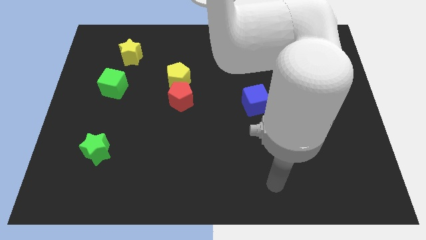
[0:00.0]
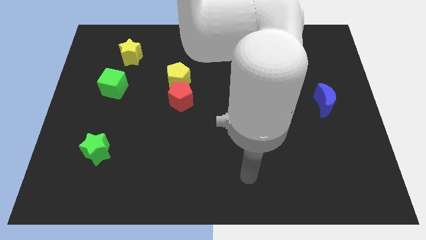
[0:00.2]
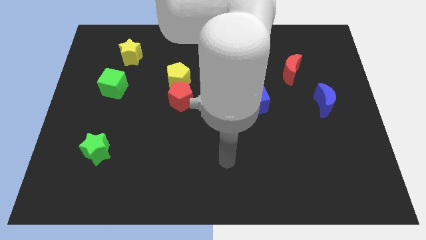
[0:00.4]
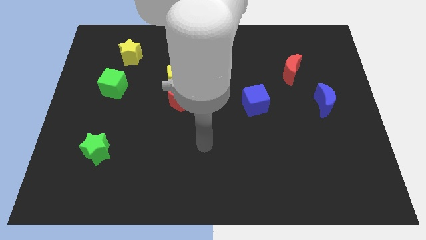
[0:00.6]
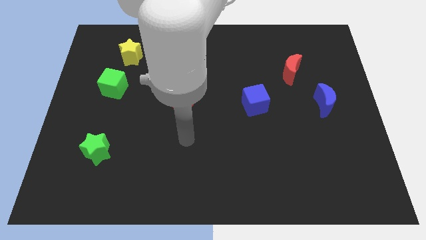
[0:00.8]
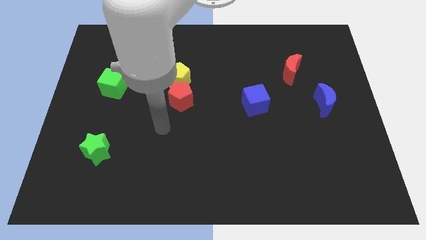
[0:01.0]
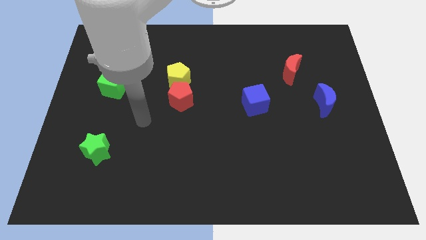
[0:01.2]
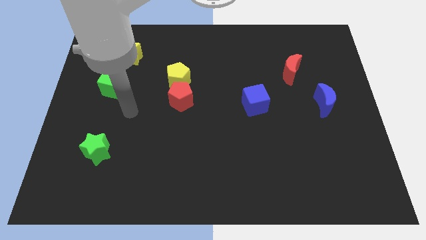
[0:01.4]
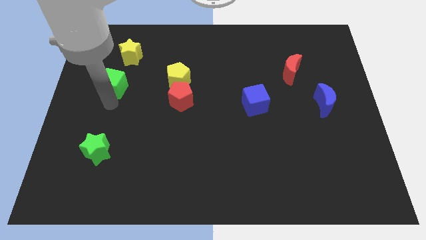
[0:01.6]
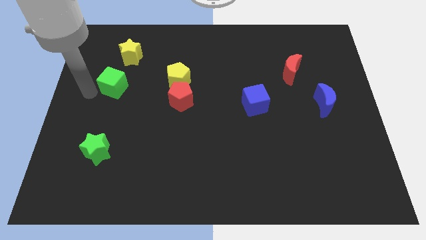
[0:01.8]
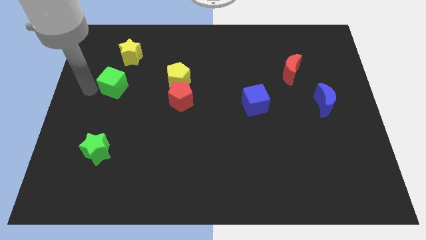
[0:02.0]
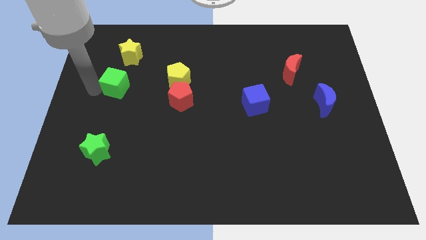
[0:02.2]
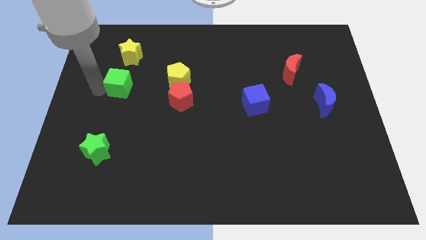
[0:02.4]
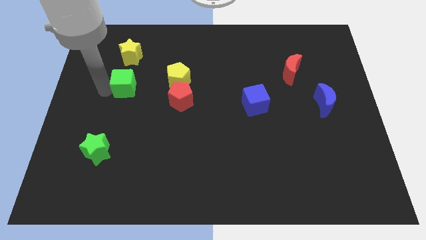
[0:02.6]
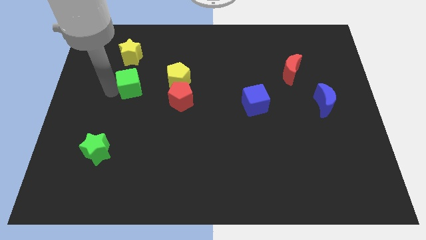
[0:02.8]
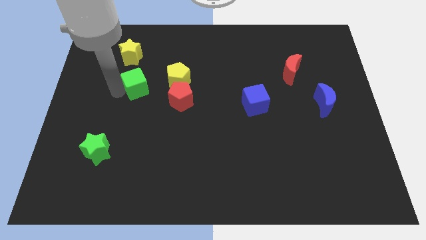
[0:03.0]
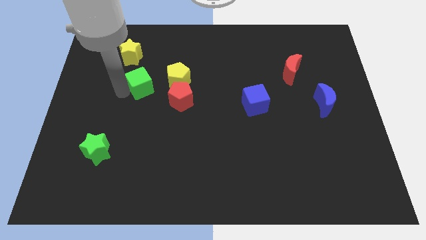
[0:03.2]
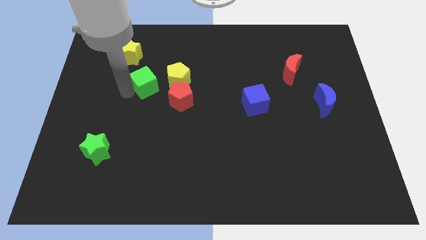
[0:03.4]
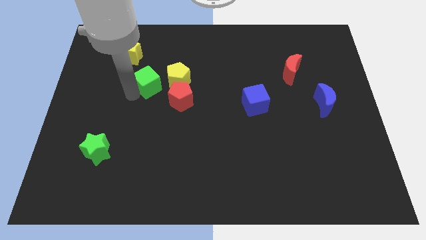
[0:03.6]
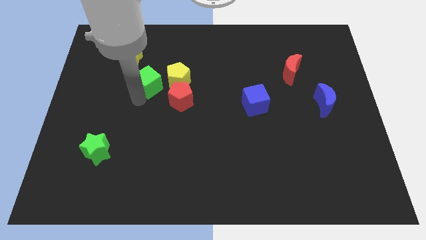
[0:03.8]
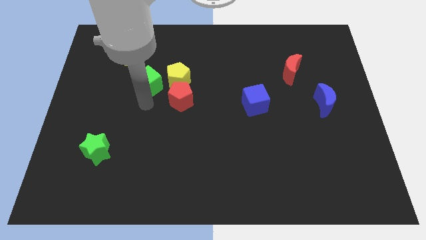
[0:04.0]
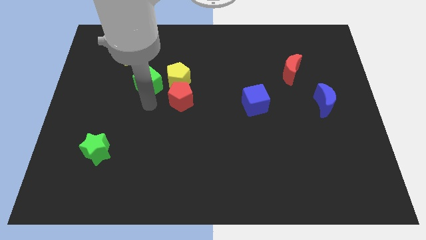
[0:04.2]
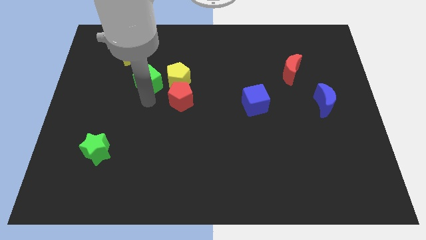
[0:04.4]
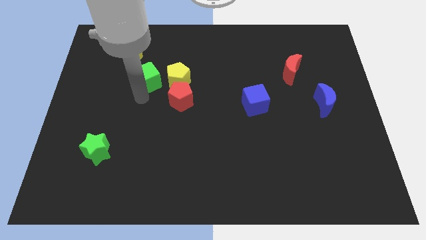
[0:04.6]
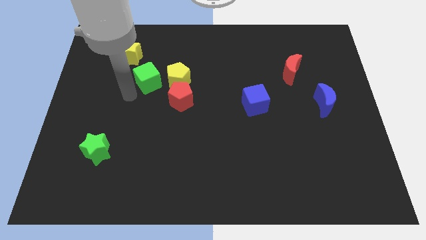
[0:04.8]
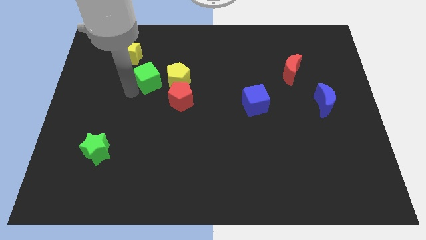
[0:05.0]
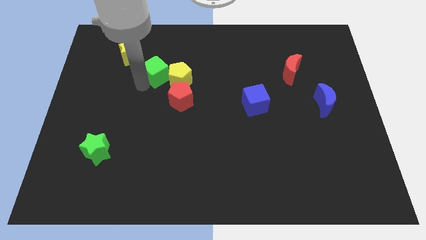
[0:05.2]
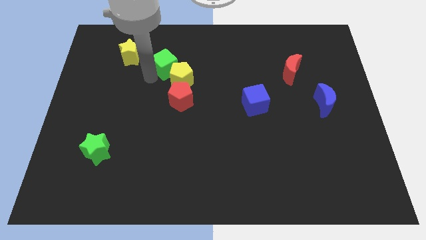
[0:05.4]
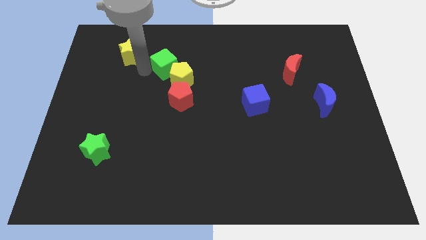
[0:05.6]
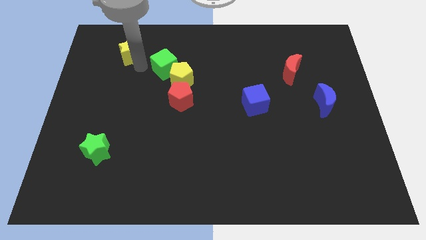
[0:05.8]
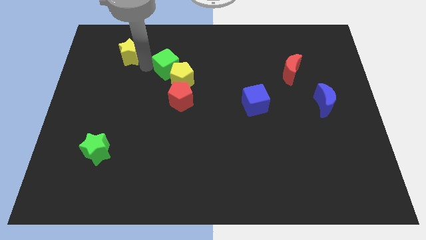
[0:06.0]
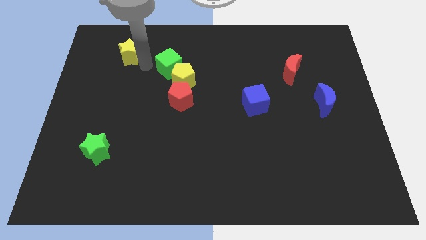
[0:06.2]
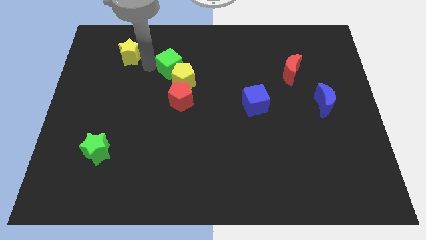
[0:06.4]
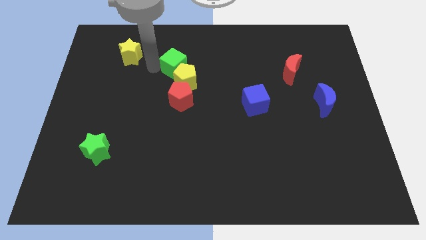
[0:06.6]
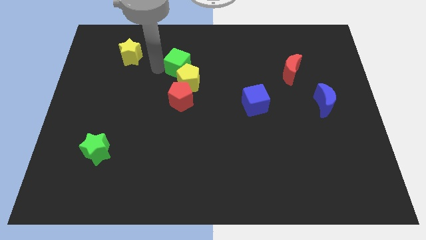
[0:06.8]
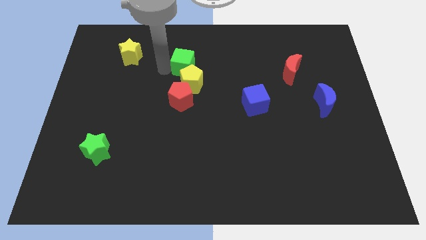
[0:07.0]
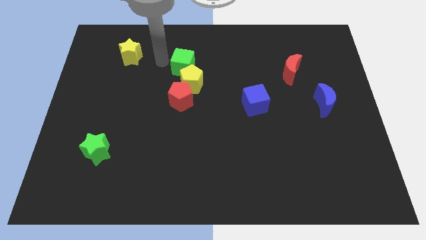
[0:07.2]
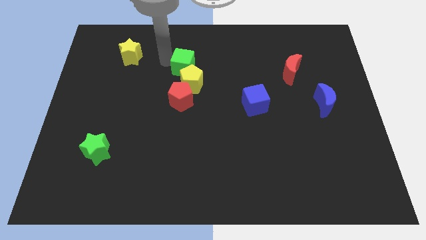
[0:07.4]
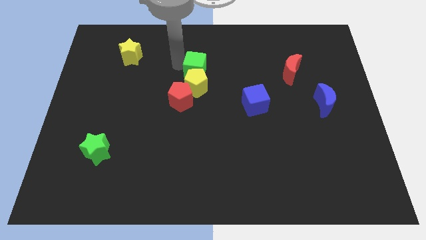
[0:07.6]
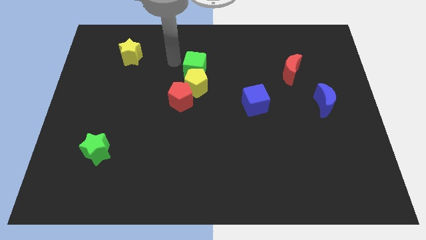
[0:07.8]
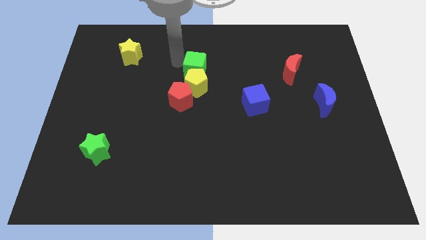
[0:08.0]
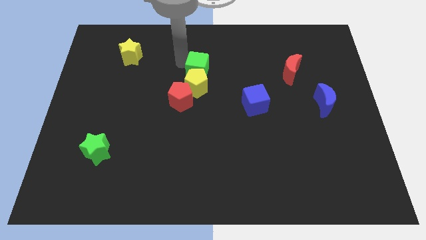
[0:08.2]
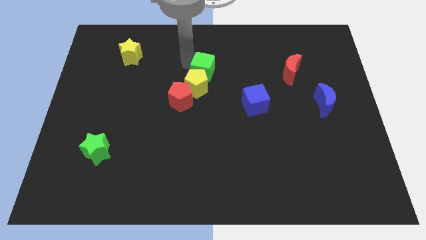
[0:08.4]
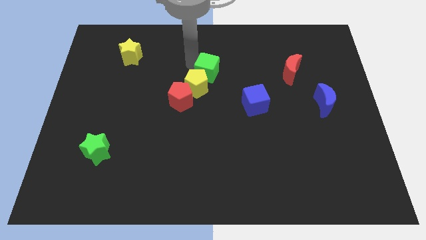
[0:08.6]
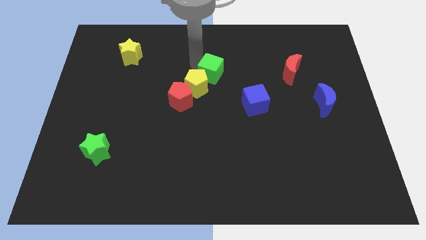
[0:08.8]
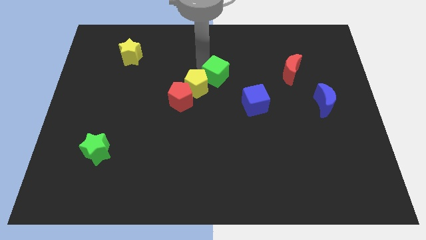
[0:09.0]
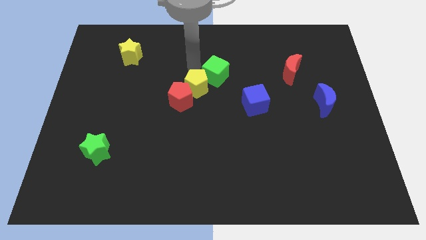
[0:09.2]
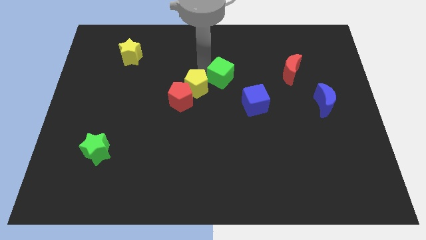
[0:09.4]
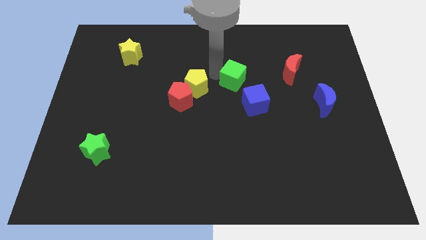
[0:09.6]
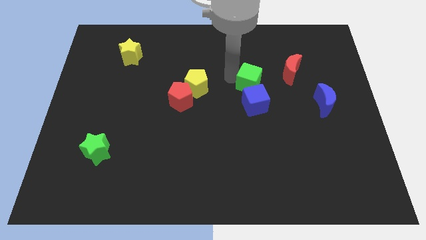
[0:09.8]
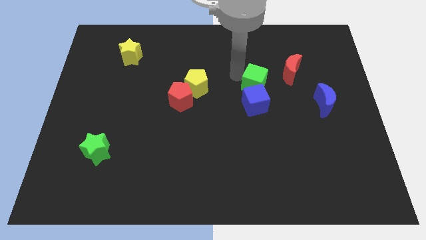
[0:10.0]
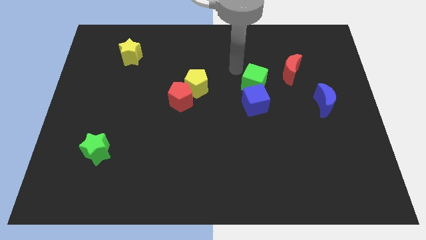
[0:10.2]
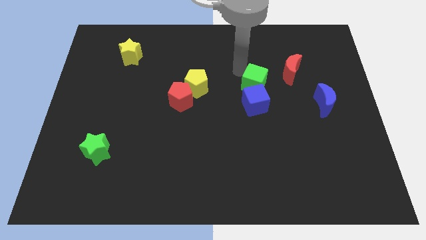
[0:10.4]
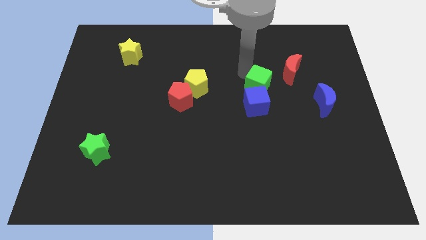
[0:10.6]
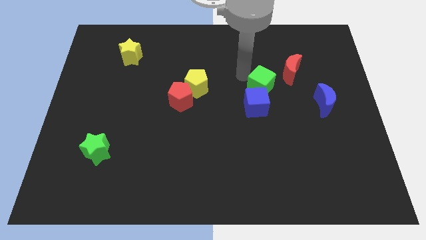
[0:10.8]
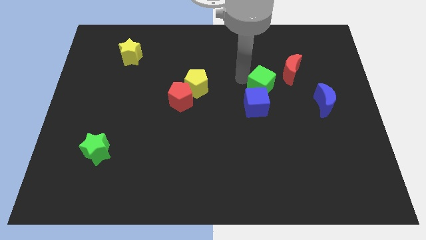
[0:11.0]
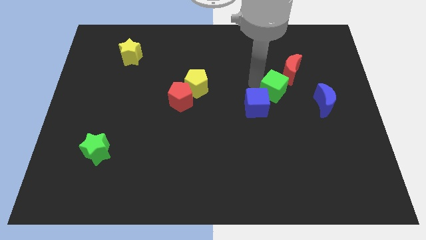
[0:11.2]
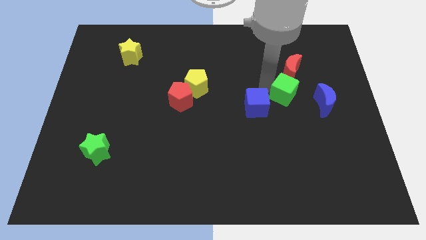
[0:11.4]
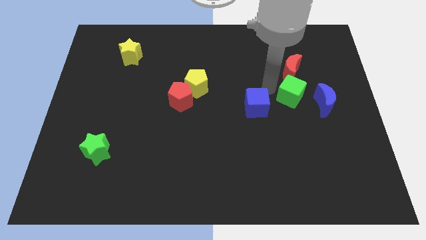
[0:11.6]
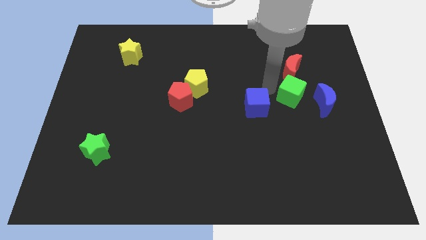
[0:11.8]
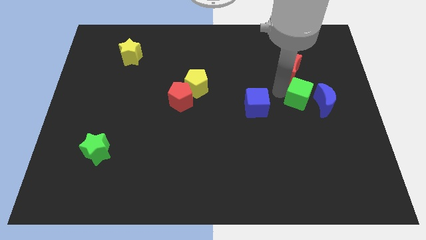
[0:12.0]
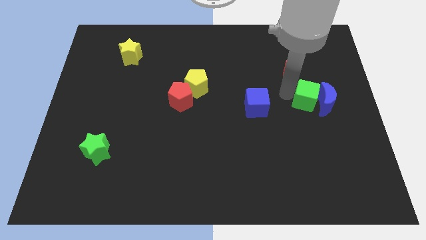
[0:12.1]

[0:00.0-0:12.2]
move the green cube next to the blue moon

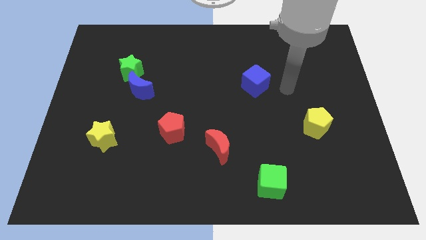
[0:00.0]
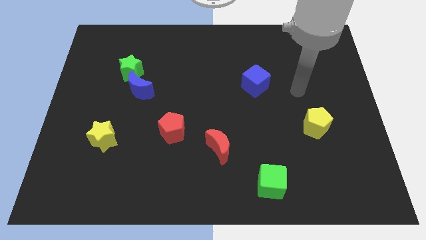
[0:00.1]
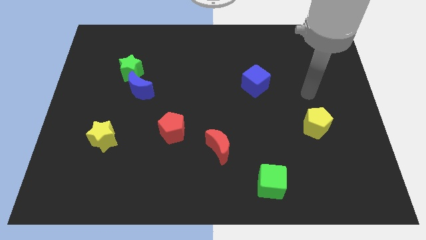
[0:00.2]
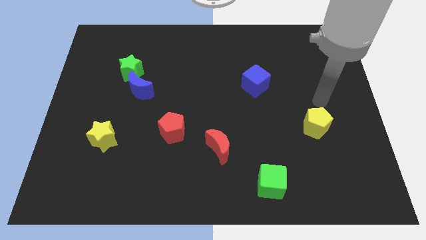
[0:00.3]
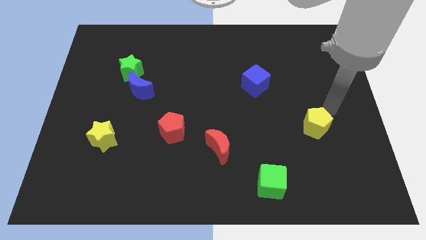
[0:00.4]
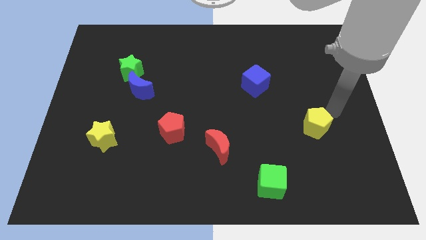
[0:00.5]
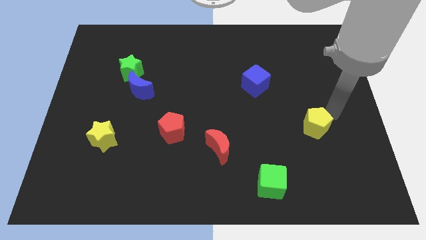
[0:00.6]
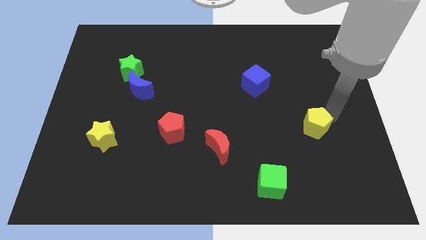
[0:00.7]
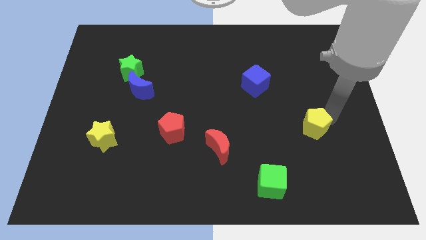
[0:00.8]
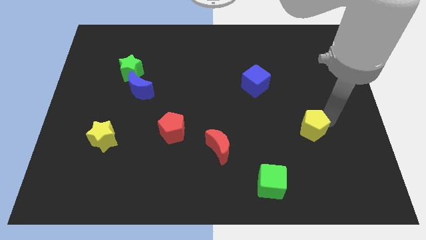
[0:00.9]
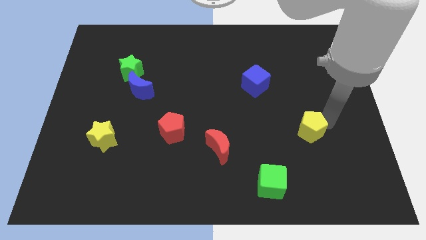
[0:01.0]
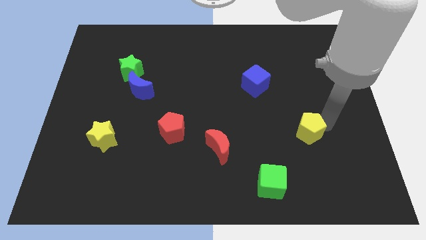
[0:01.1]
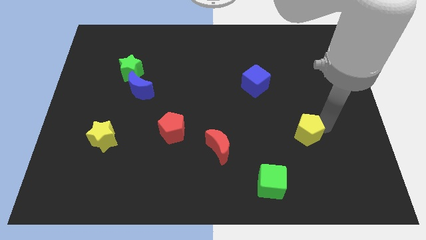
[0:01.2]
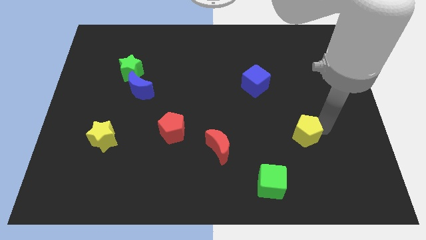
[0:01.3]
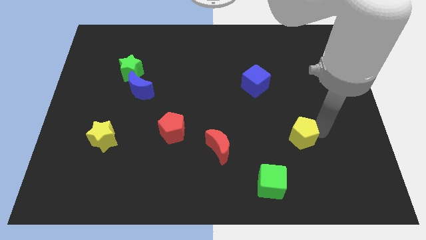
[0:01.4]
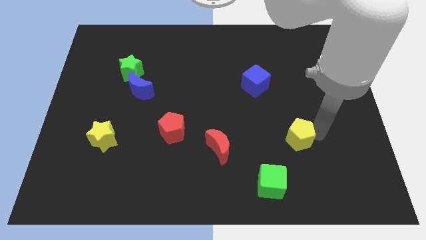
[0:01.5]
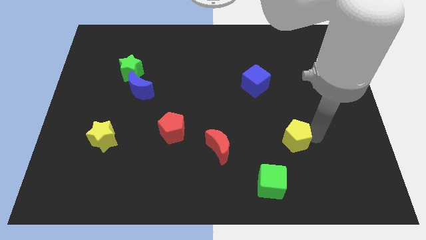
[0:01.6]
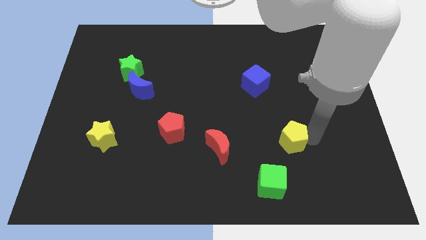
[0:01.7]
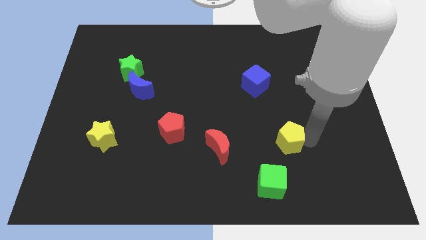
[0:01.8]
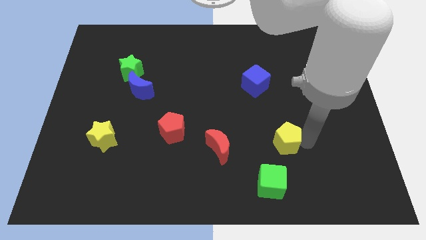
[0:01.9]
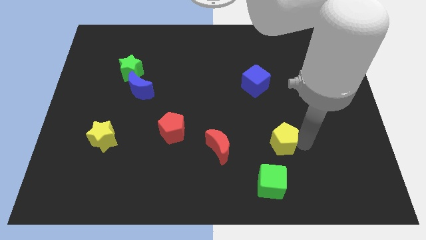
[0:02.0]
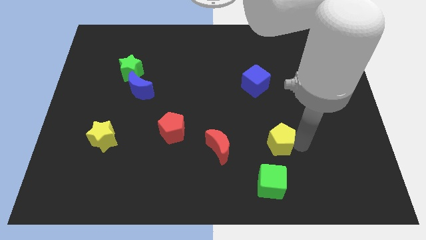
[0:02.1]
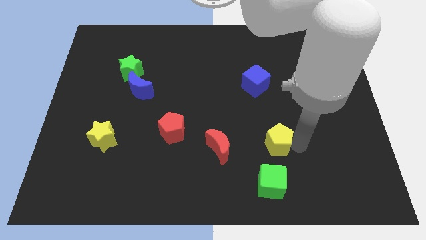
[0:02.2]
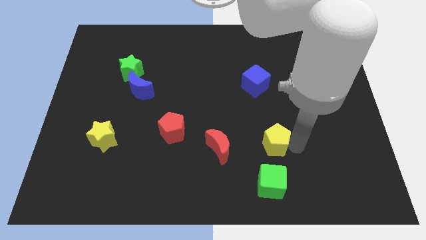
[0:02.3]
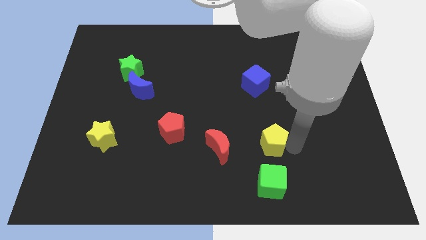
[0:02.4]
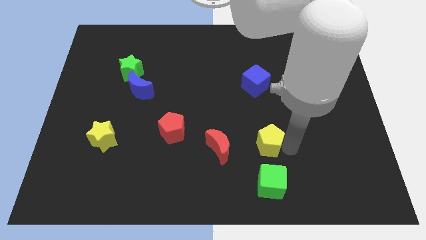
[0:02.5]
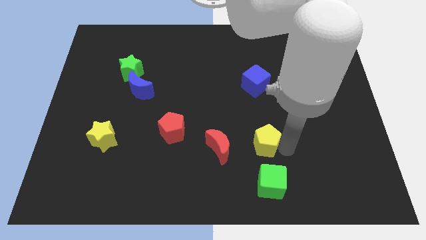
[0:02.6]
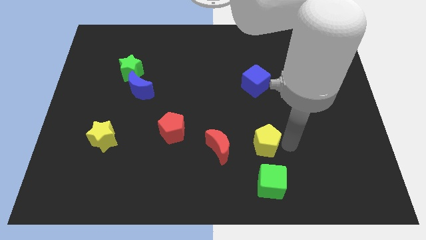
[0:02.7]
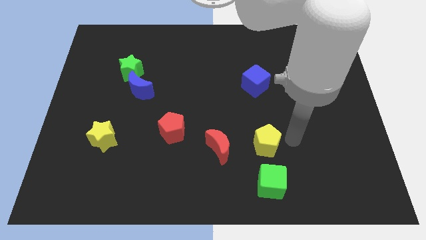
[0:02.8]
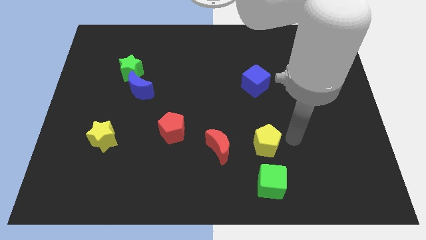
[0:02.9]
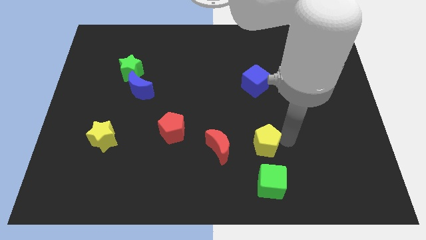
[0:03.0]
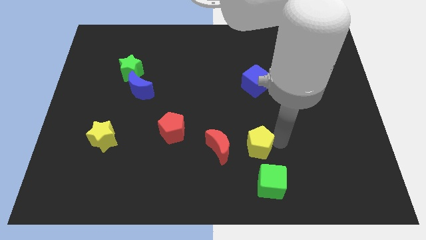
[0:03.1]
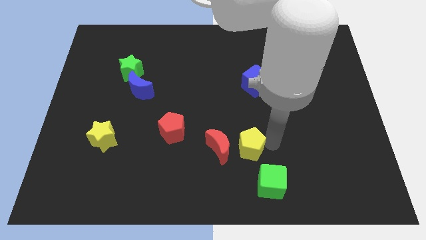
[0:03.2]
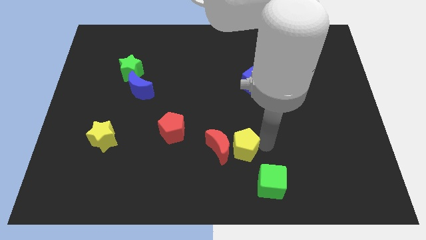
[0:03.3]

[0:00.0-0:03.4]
push the yellow pentagon close to the red moon
